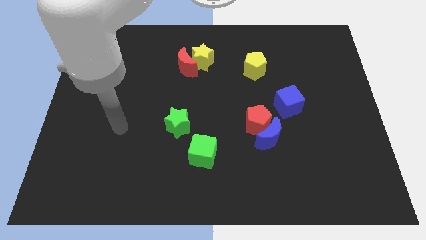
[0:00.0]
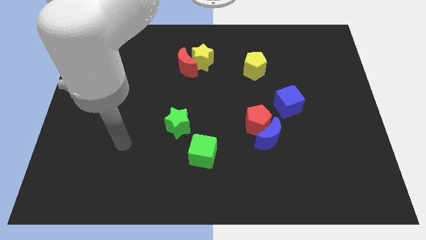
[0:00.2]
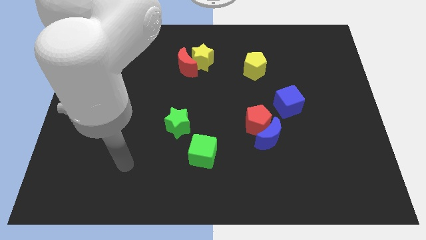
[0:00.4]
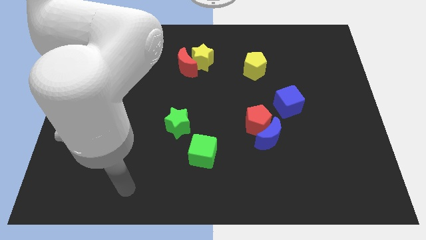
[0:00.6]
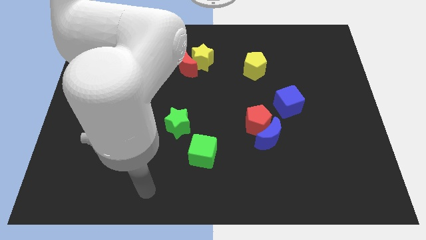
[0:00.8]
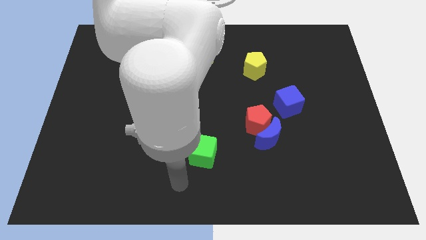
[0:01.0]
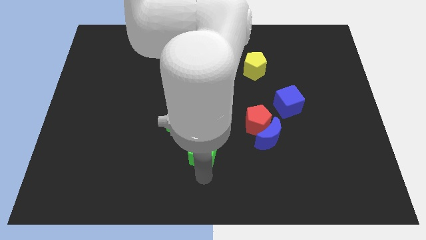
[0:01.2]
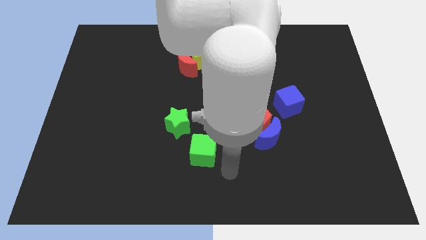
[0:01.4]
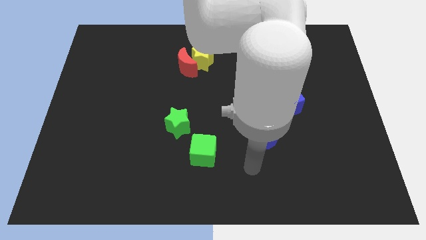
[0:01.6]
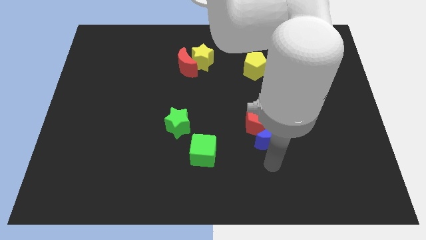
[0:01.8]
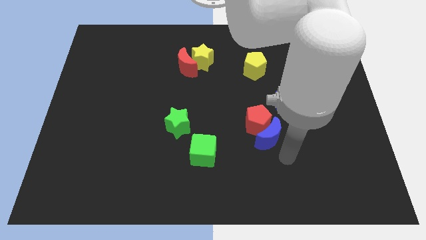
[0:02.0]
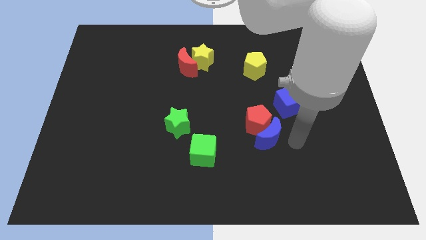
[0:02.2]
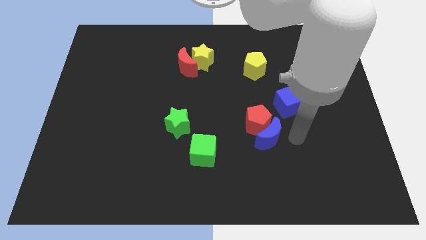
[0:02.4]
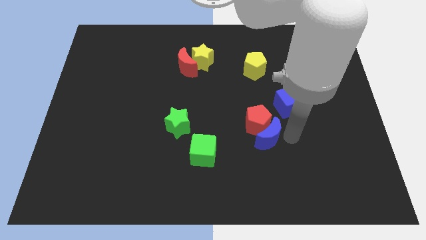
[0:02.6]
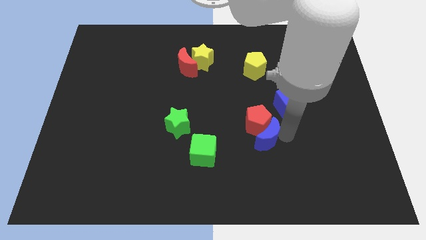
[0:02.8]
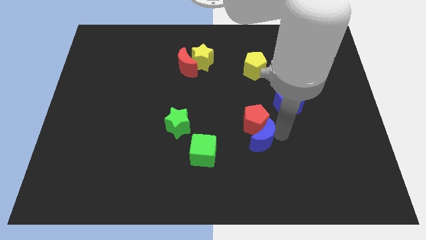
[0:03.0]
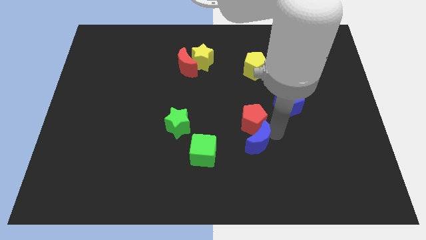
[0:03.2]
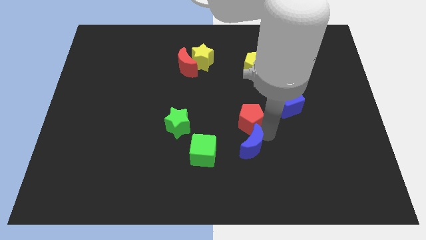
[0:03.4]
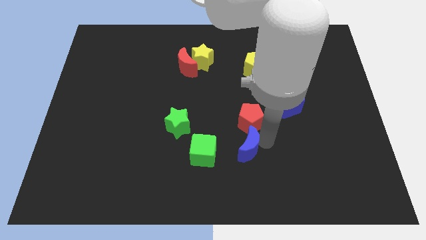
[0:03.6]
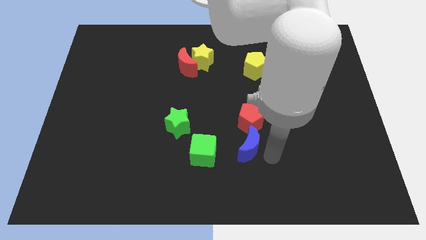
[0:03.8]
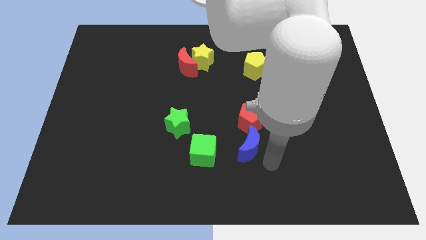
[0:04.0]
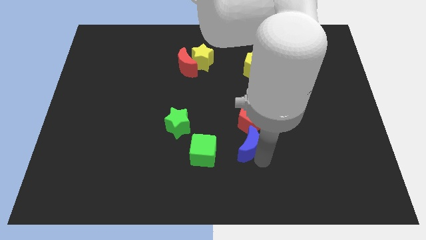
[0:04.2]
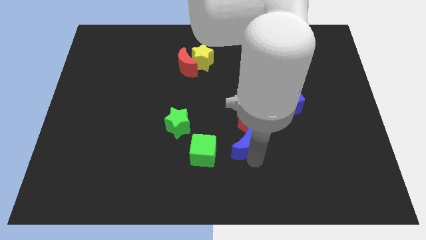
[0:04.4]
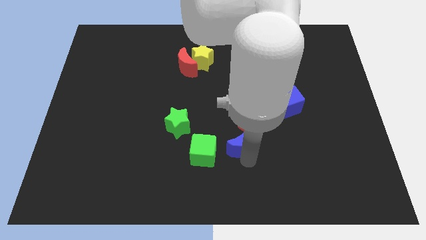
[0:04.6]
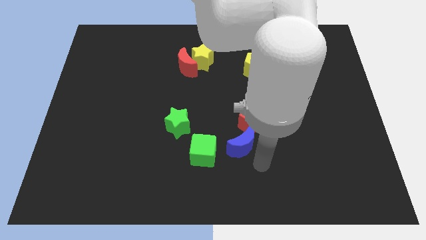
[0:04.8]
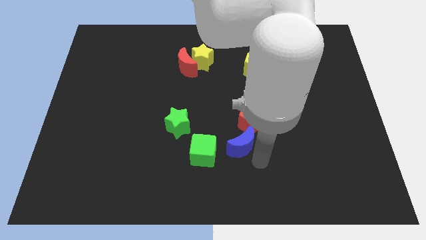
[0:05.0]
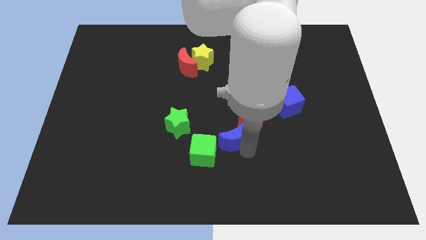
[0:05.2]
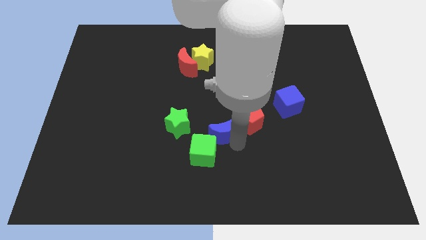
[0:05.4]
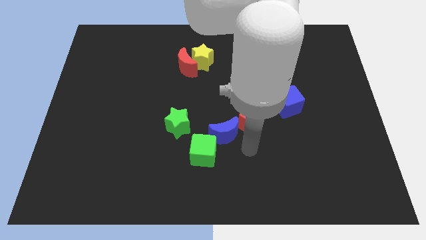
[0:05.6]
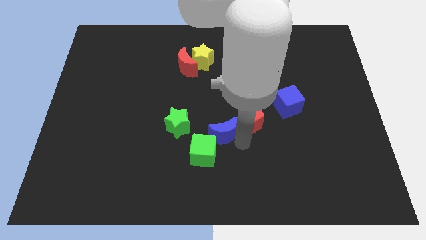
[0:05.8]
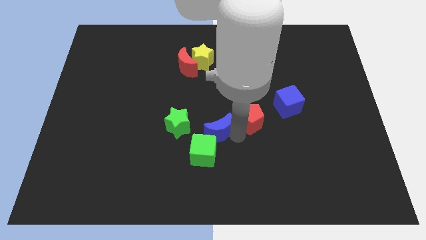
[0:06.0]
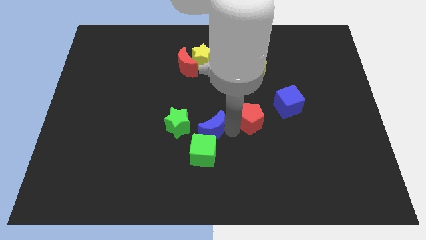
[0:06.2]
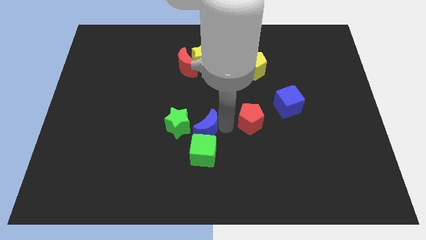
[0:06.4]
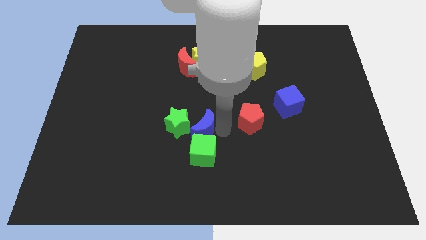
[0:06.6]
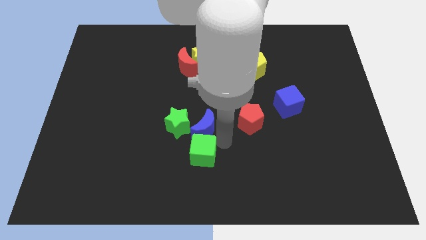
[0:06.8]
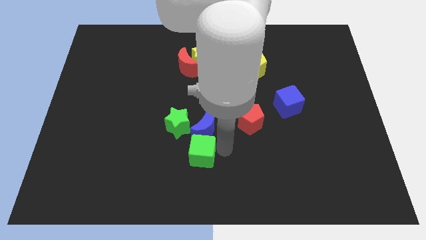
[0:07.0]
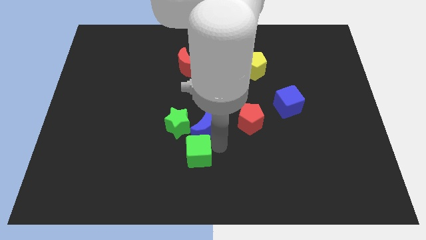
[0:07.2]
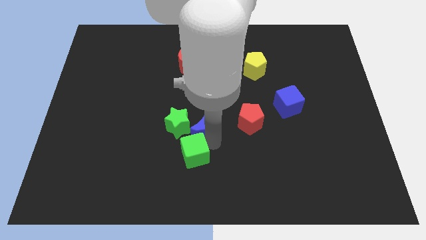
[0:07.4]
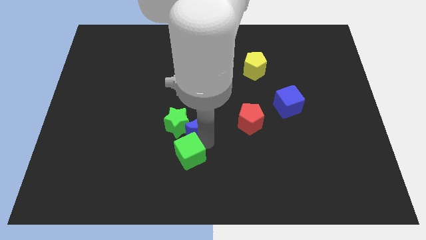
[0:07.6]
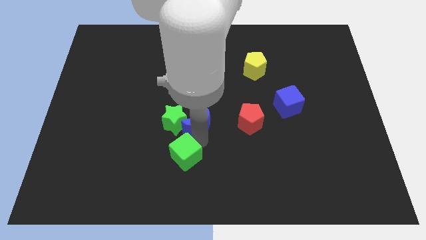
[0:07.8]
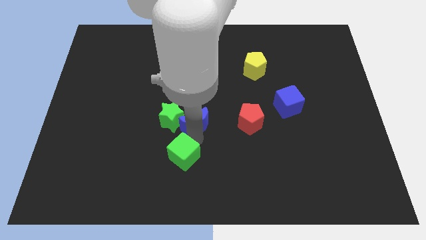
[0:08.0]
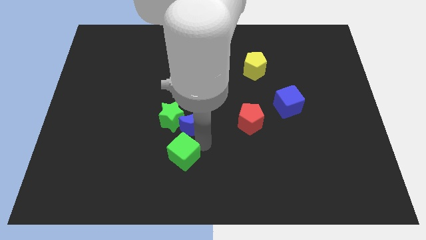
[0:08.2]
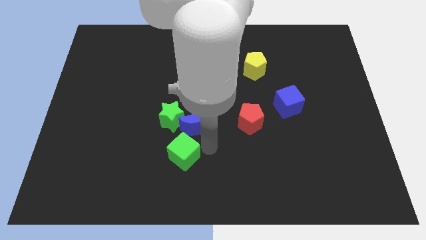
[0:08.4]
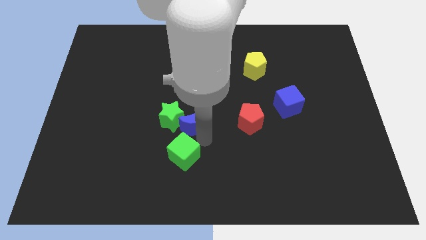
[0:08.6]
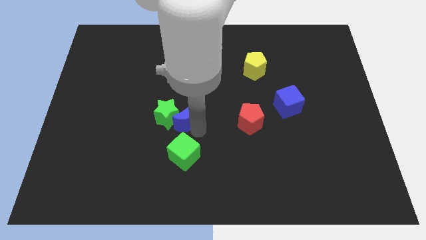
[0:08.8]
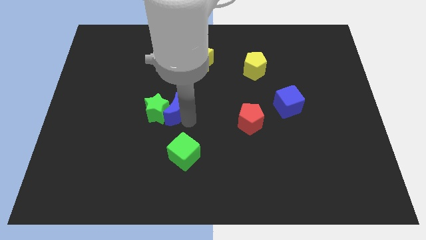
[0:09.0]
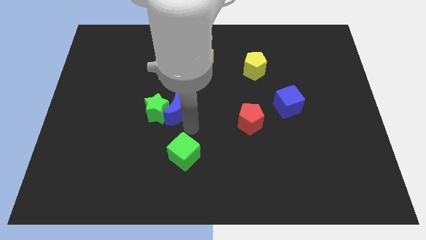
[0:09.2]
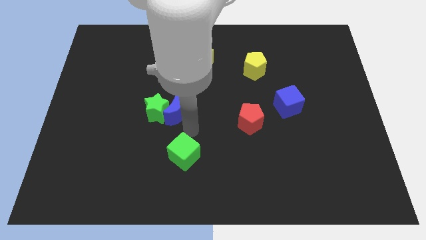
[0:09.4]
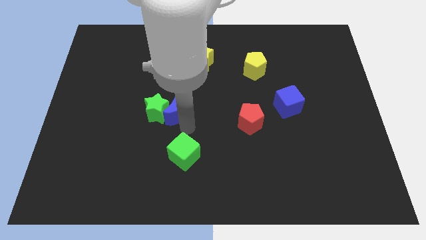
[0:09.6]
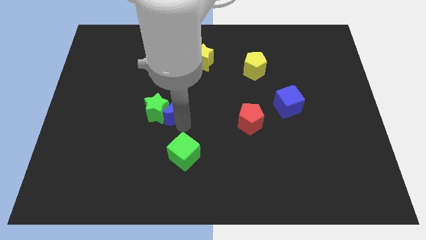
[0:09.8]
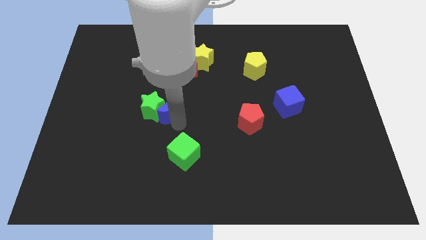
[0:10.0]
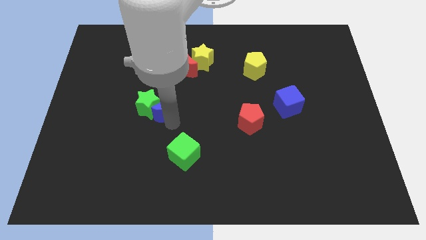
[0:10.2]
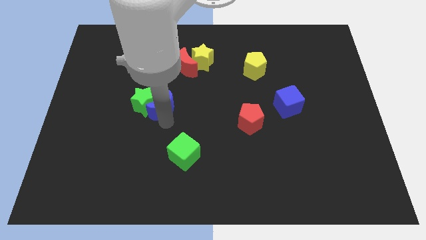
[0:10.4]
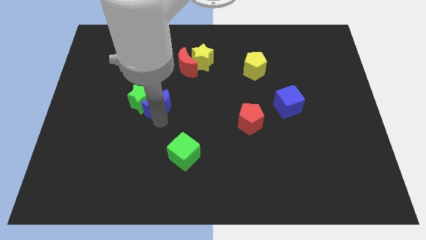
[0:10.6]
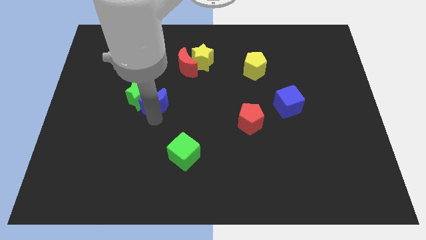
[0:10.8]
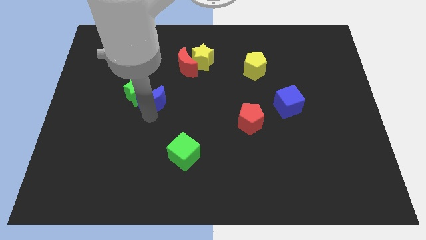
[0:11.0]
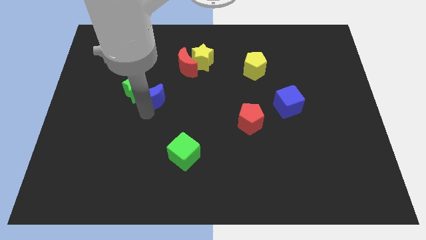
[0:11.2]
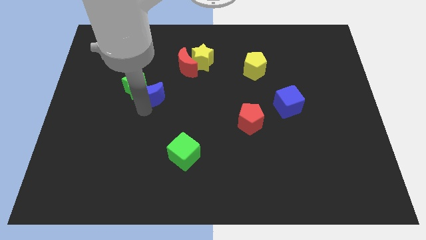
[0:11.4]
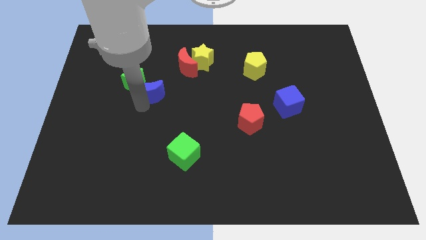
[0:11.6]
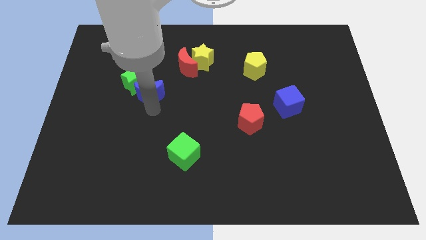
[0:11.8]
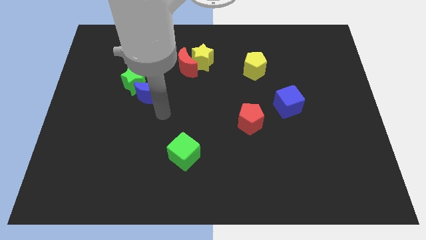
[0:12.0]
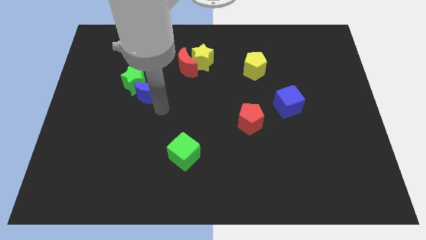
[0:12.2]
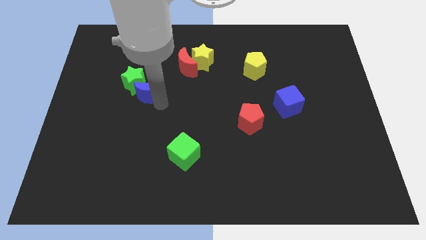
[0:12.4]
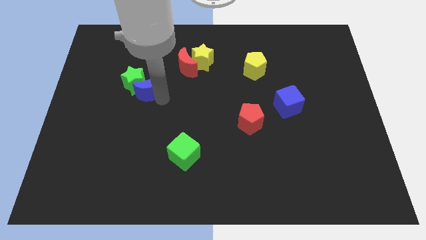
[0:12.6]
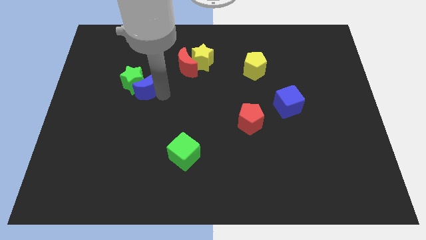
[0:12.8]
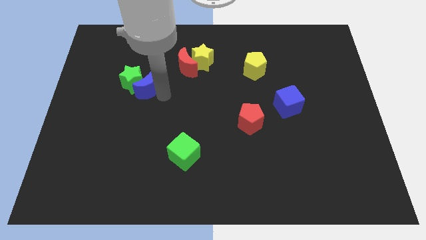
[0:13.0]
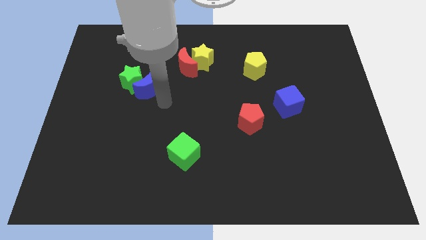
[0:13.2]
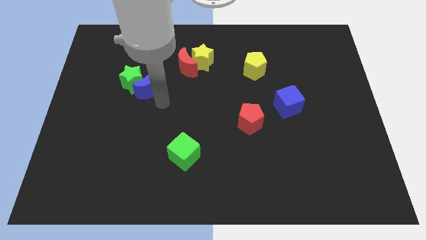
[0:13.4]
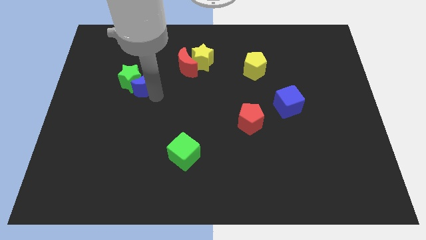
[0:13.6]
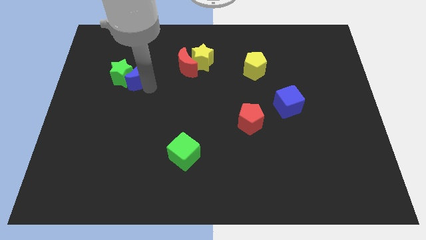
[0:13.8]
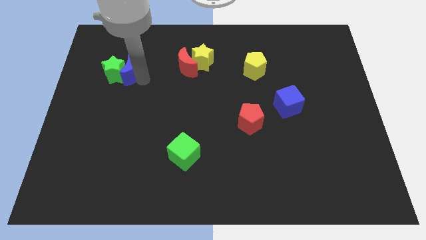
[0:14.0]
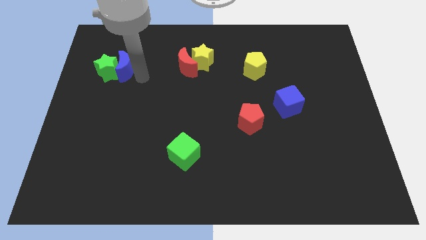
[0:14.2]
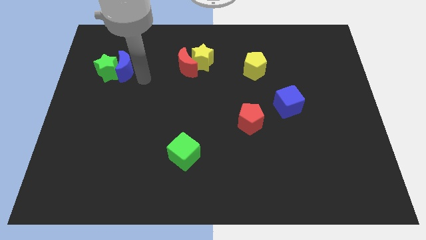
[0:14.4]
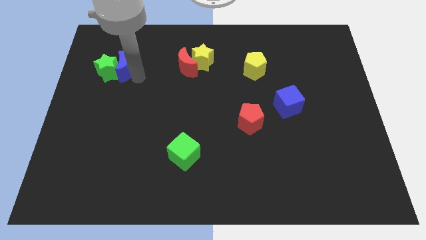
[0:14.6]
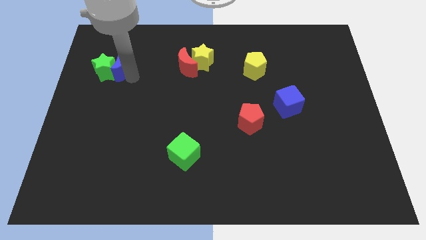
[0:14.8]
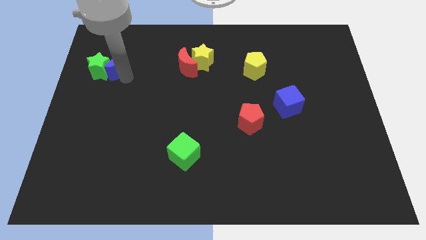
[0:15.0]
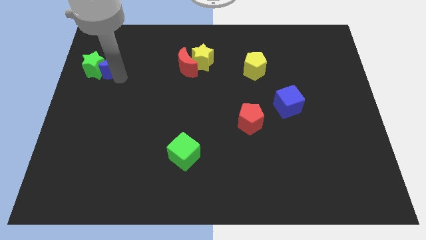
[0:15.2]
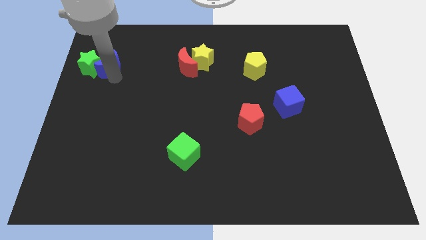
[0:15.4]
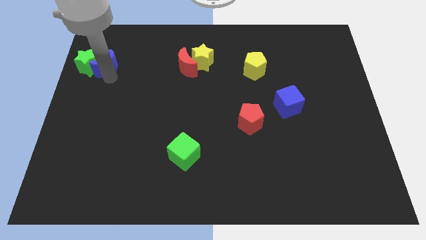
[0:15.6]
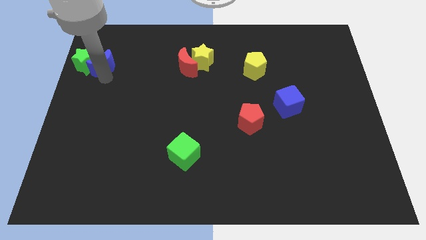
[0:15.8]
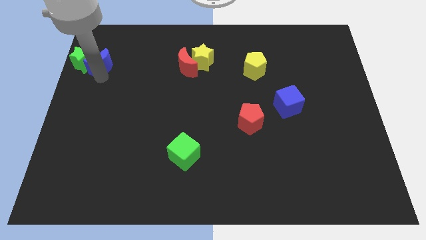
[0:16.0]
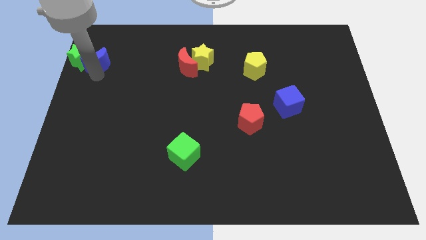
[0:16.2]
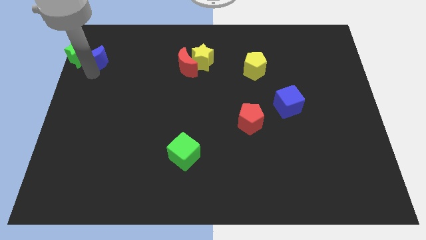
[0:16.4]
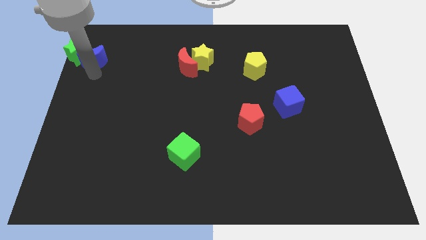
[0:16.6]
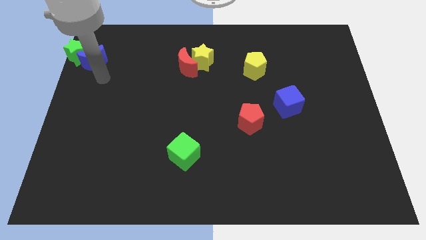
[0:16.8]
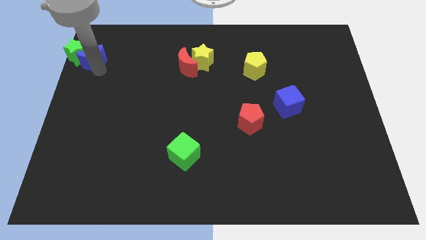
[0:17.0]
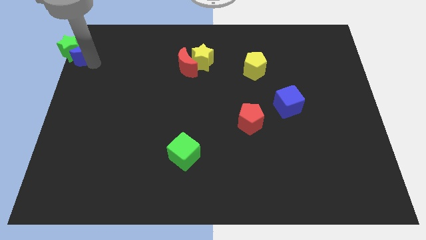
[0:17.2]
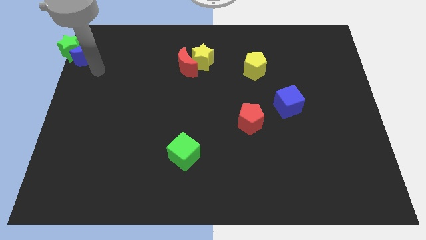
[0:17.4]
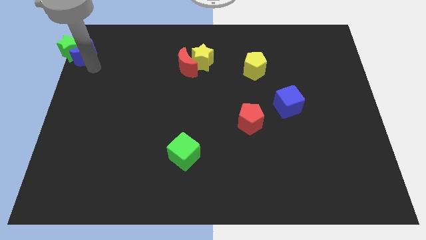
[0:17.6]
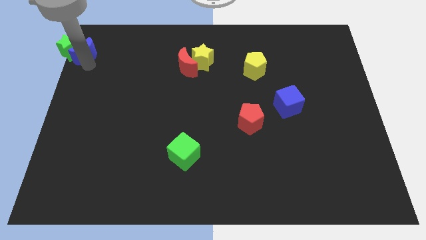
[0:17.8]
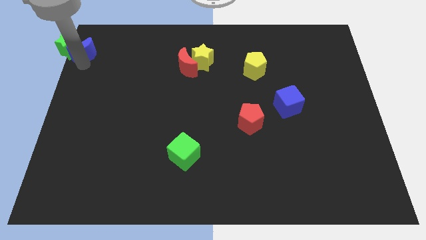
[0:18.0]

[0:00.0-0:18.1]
slide the blue moon to the top left corner
